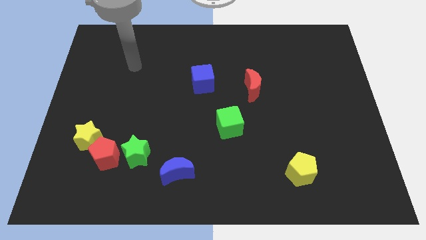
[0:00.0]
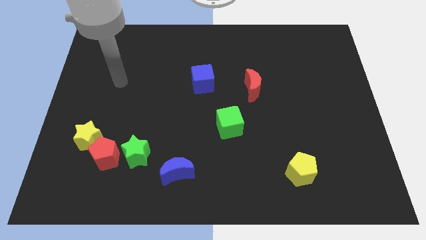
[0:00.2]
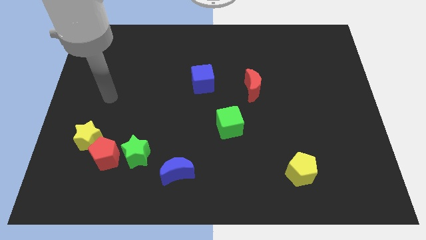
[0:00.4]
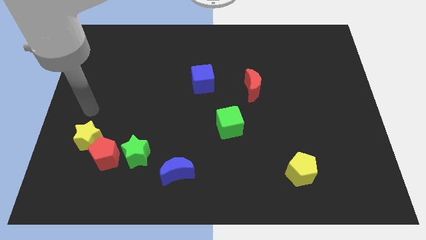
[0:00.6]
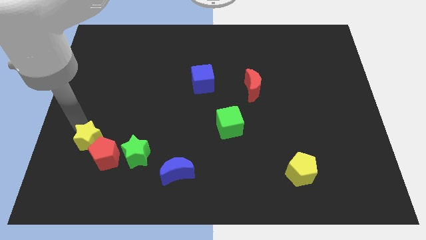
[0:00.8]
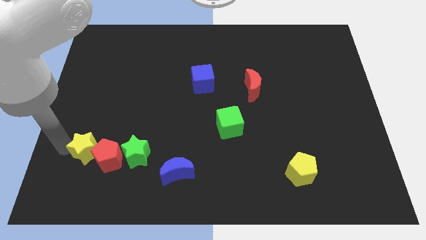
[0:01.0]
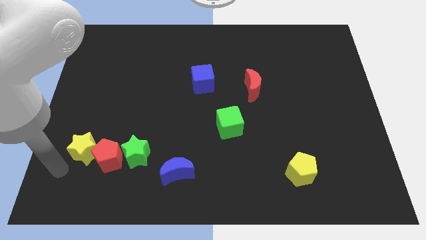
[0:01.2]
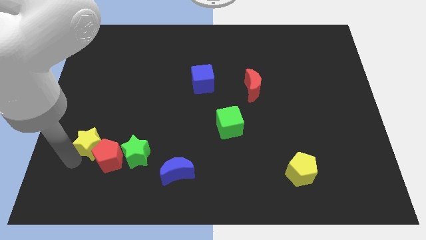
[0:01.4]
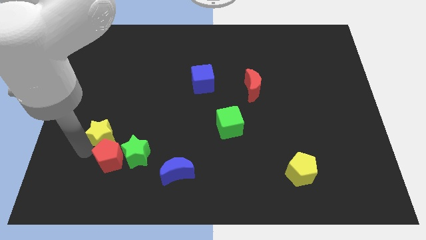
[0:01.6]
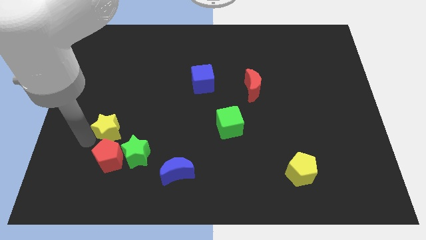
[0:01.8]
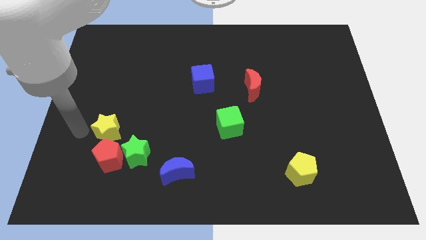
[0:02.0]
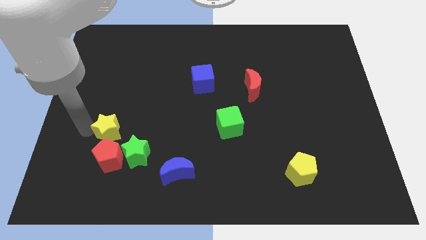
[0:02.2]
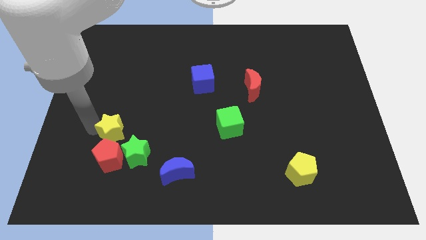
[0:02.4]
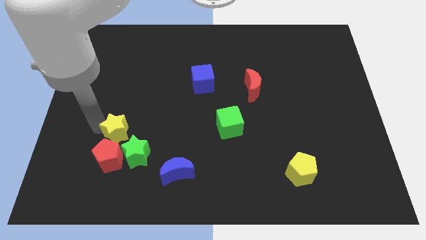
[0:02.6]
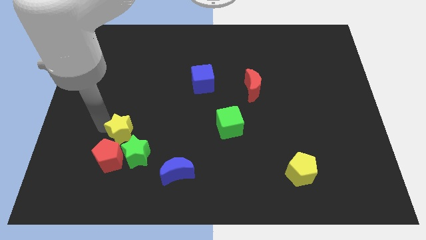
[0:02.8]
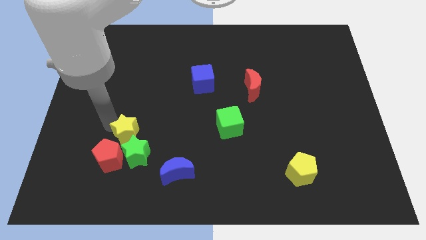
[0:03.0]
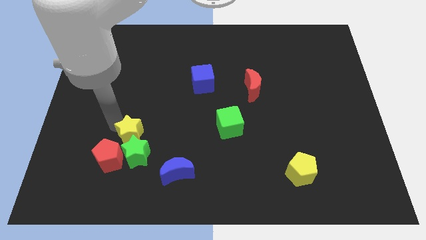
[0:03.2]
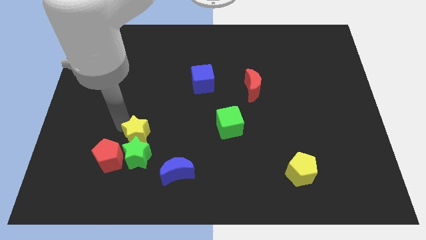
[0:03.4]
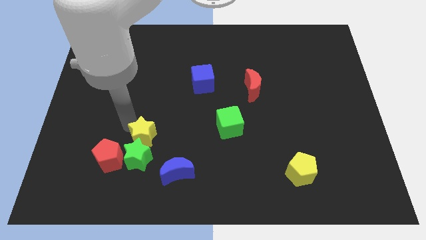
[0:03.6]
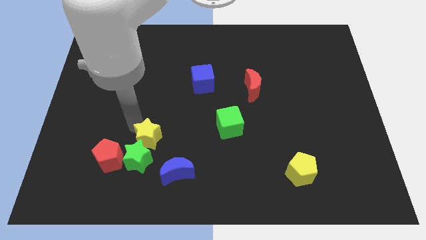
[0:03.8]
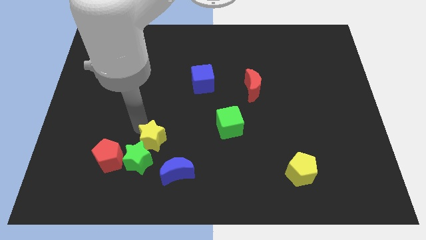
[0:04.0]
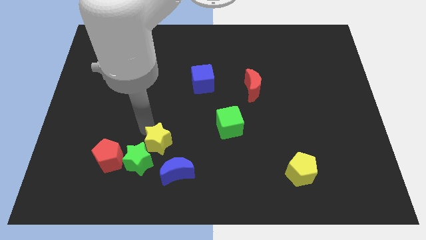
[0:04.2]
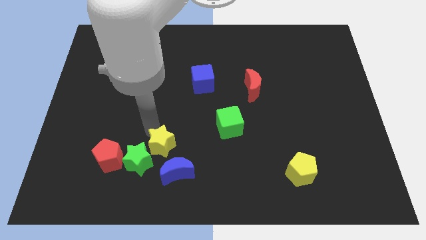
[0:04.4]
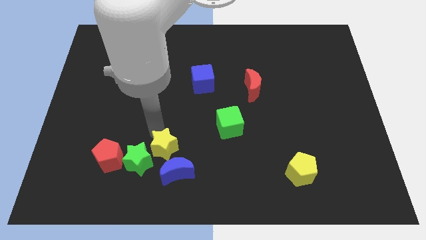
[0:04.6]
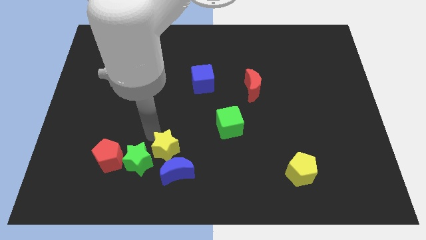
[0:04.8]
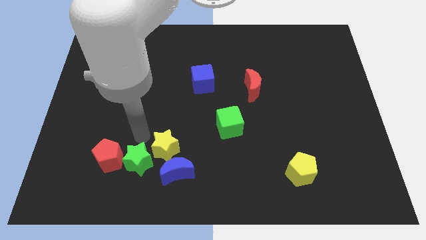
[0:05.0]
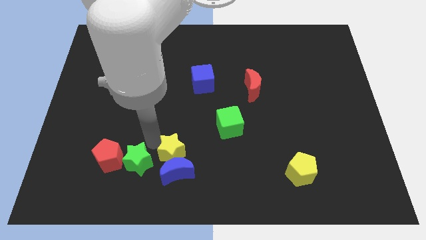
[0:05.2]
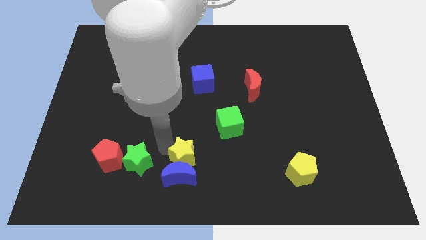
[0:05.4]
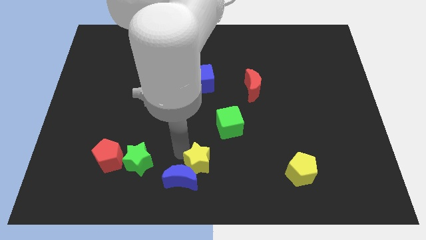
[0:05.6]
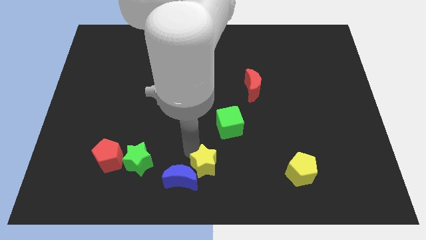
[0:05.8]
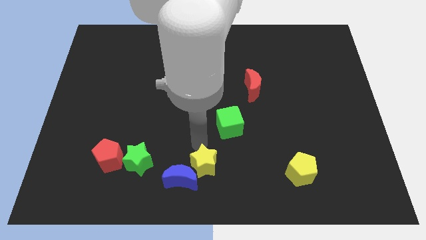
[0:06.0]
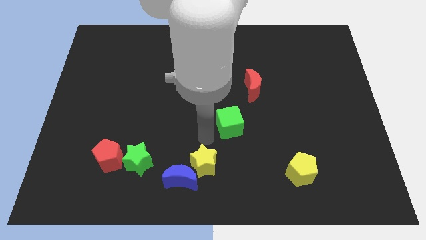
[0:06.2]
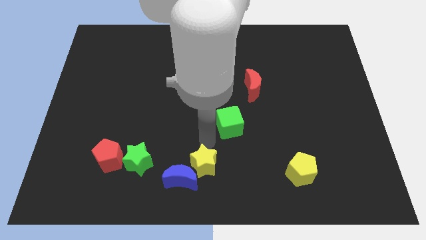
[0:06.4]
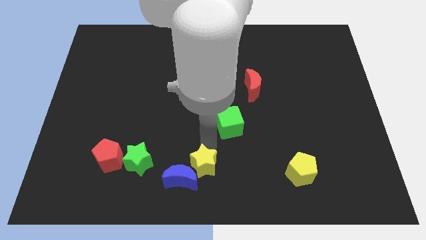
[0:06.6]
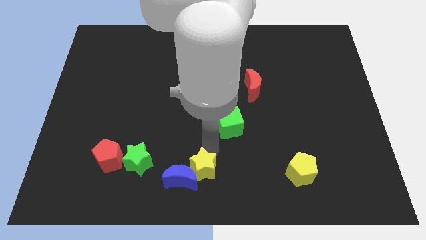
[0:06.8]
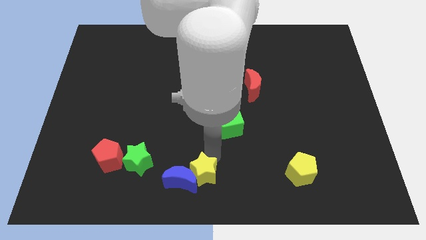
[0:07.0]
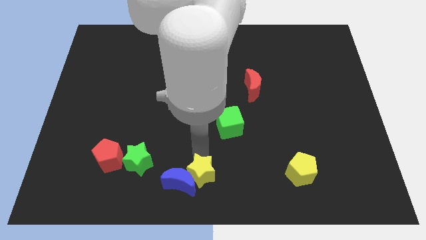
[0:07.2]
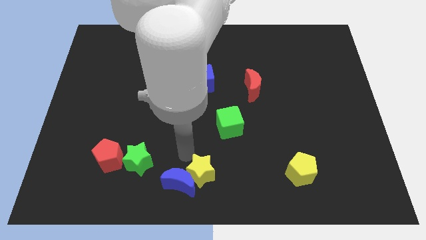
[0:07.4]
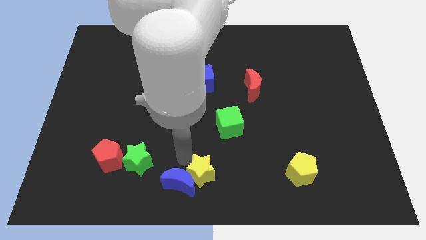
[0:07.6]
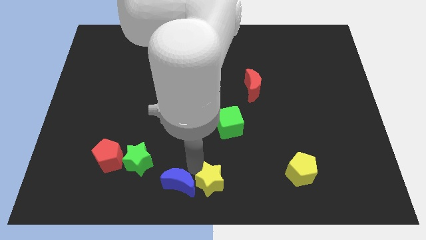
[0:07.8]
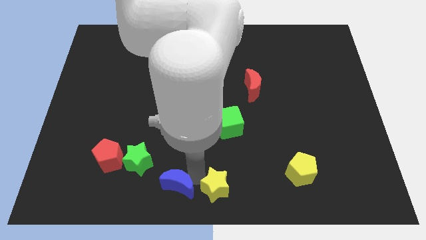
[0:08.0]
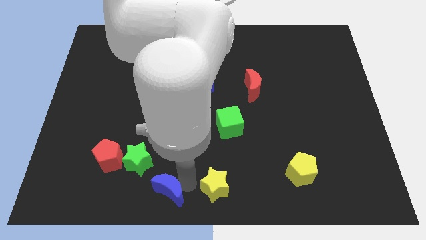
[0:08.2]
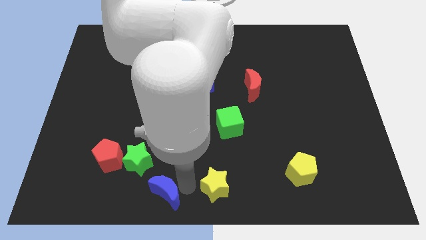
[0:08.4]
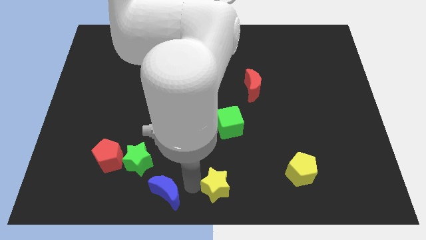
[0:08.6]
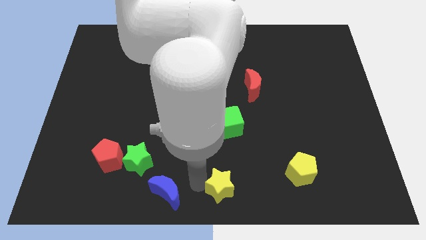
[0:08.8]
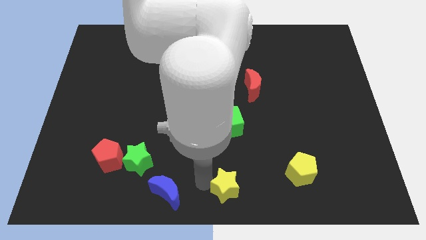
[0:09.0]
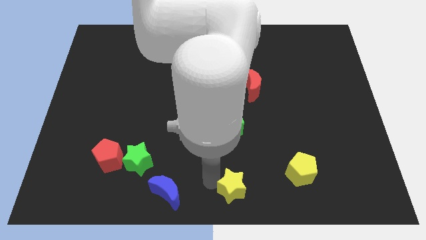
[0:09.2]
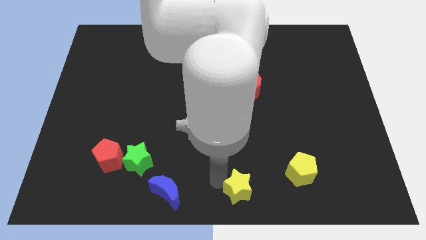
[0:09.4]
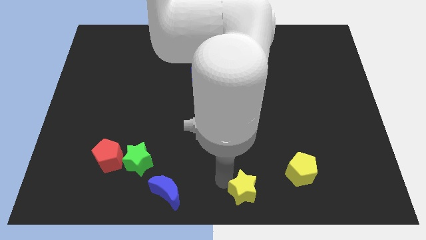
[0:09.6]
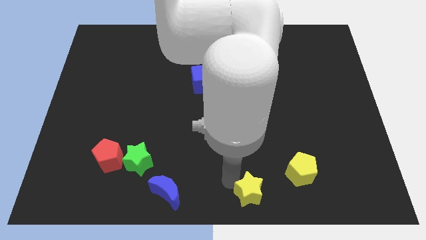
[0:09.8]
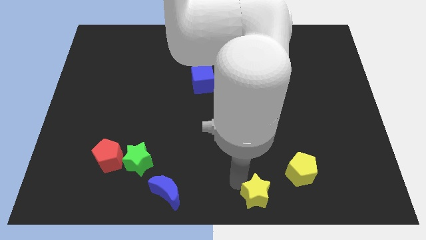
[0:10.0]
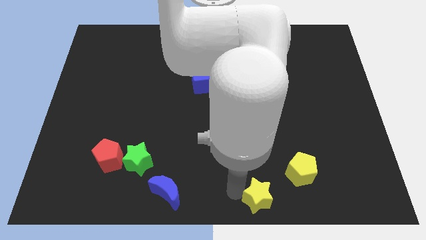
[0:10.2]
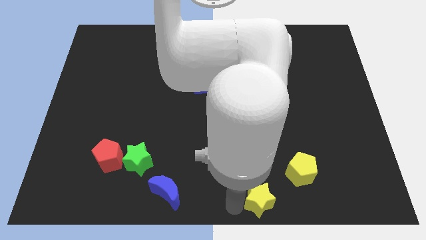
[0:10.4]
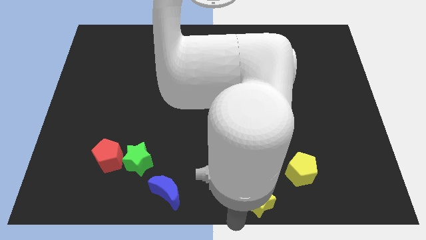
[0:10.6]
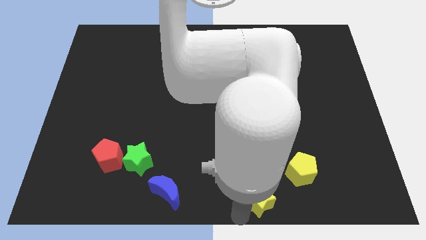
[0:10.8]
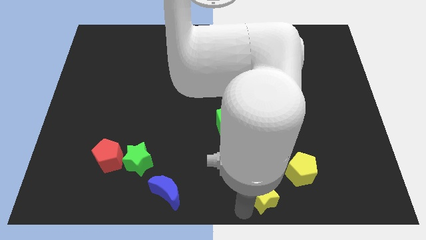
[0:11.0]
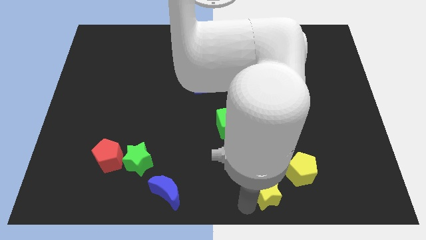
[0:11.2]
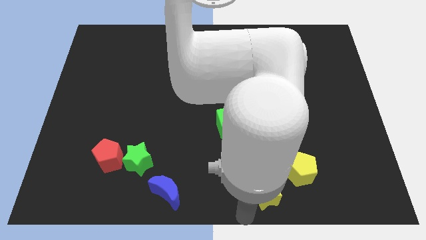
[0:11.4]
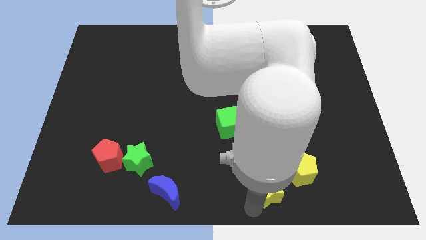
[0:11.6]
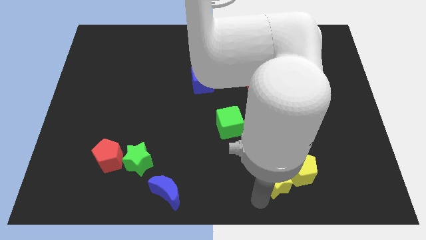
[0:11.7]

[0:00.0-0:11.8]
slide the yellow star towards the yellow pentagon

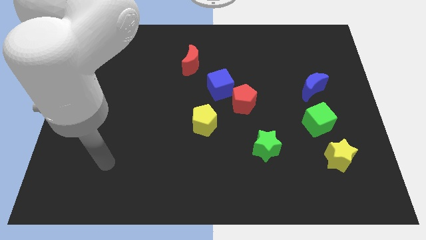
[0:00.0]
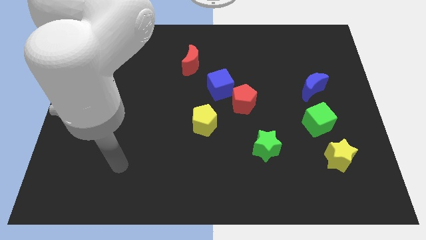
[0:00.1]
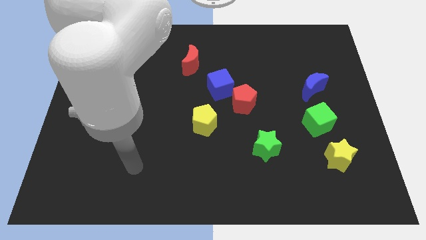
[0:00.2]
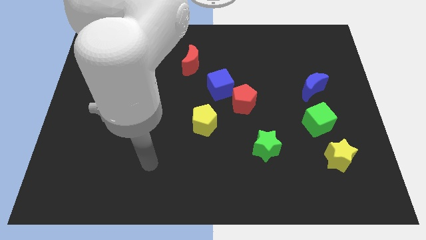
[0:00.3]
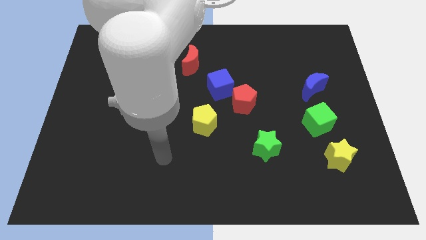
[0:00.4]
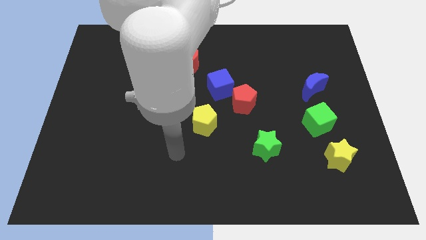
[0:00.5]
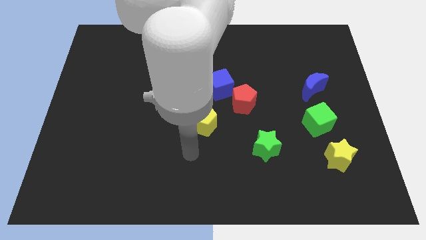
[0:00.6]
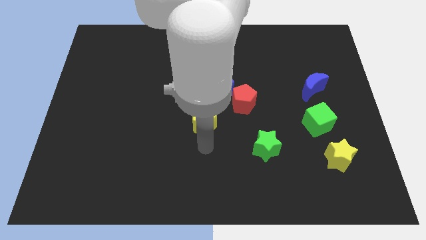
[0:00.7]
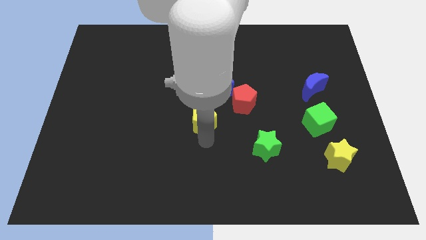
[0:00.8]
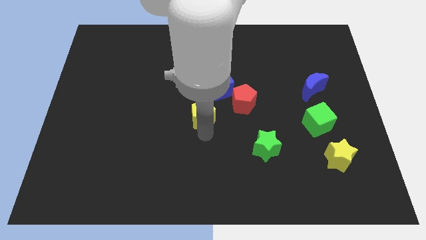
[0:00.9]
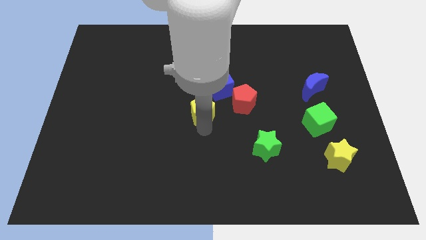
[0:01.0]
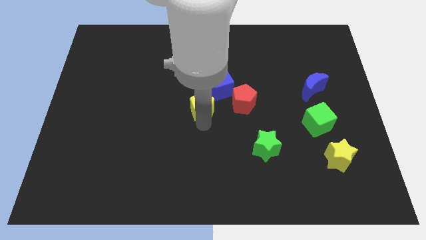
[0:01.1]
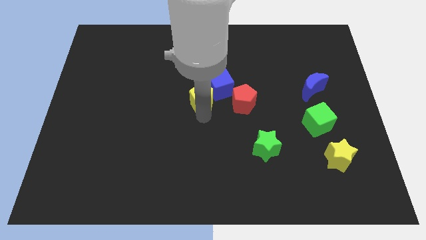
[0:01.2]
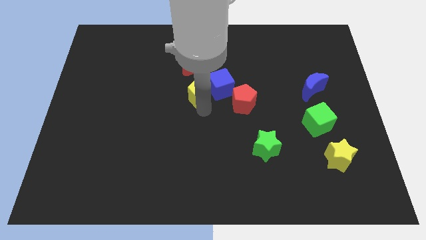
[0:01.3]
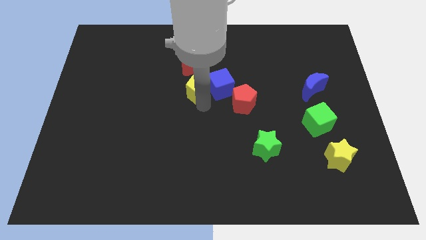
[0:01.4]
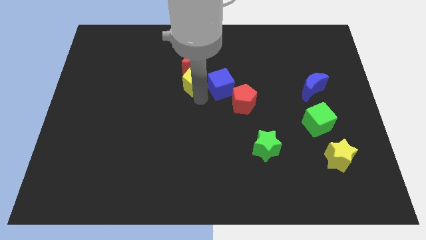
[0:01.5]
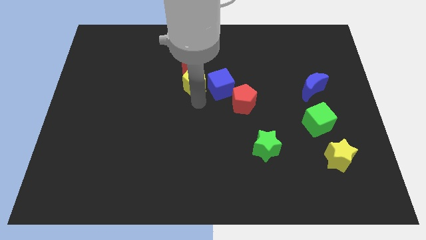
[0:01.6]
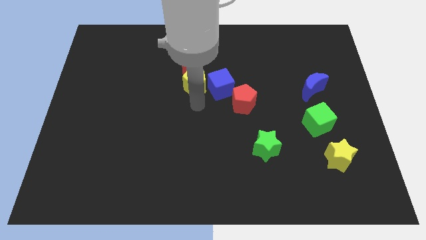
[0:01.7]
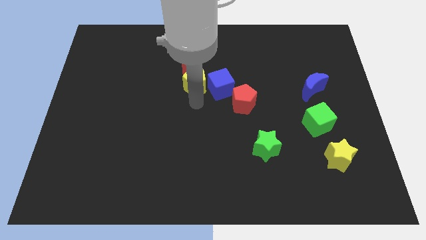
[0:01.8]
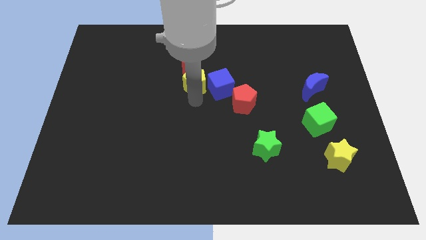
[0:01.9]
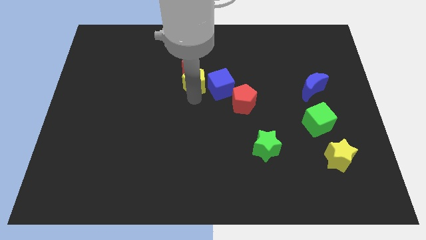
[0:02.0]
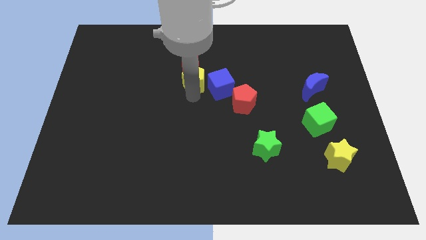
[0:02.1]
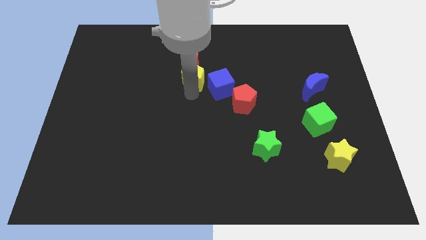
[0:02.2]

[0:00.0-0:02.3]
push the yellow pentagon close to the red moon
